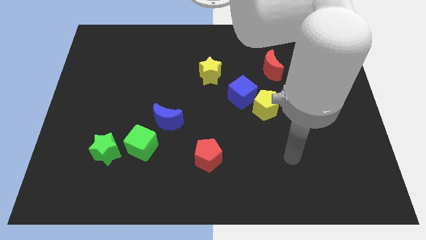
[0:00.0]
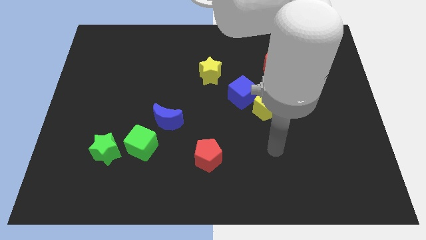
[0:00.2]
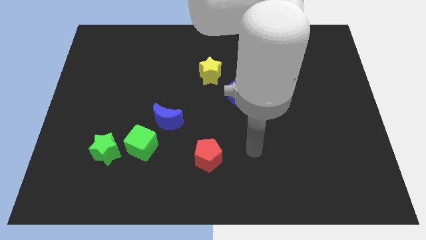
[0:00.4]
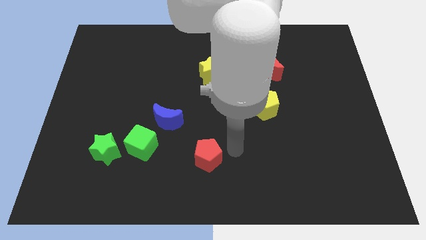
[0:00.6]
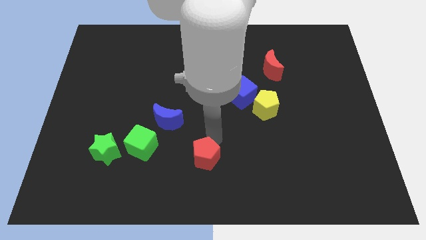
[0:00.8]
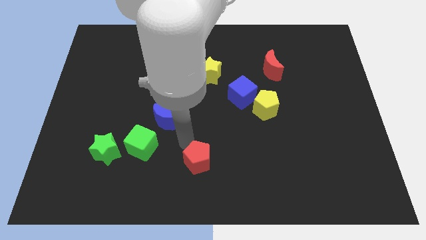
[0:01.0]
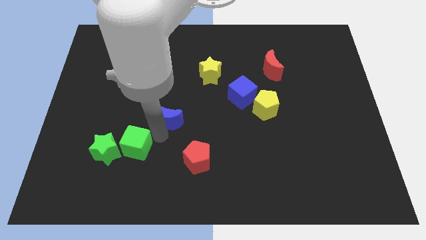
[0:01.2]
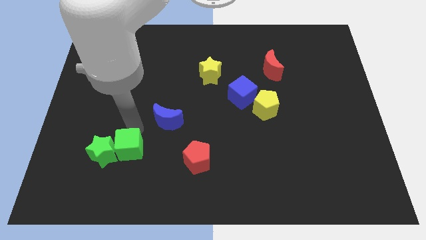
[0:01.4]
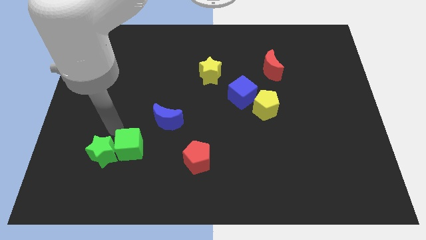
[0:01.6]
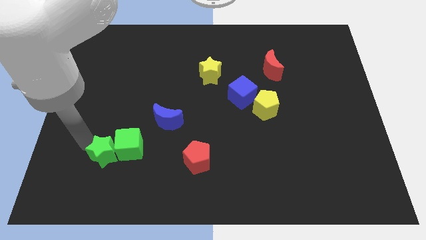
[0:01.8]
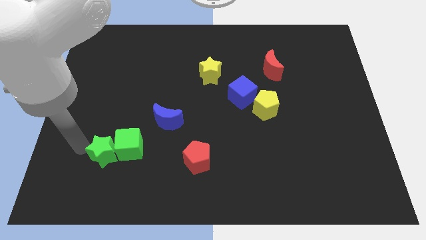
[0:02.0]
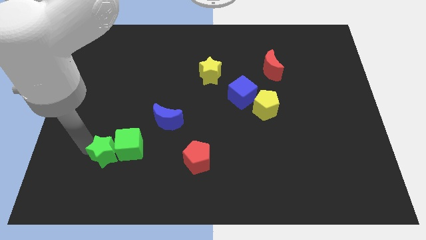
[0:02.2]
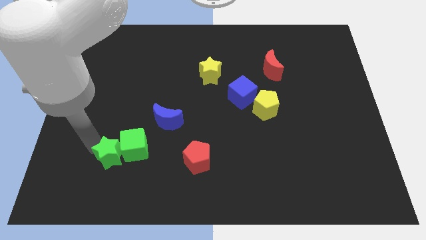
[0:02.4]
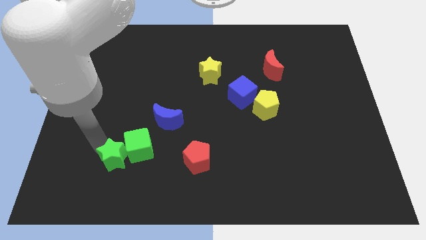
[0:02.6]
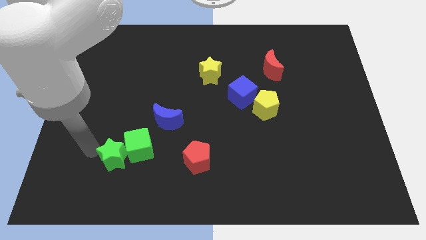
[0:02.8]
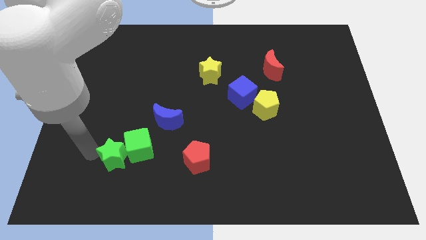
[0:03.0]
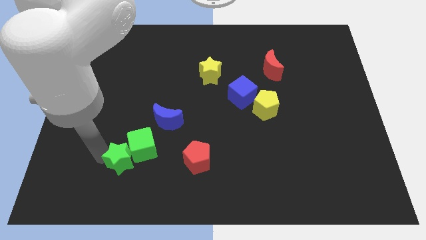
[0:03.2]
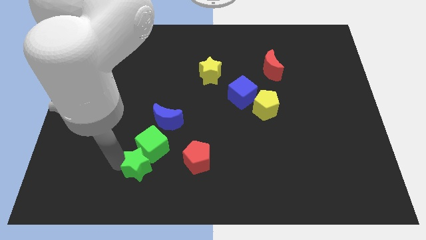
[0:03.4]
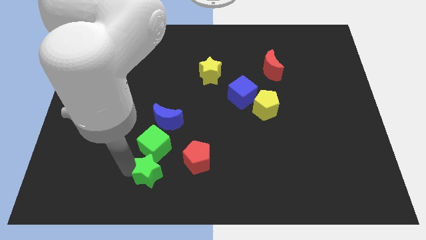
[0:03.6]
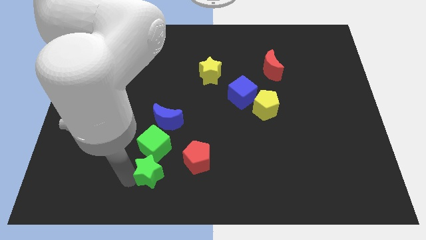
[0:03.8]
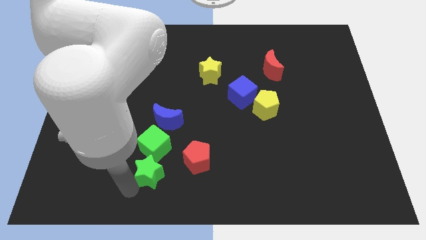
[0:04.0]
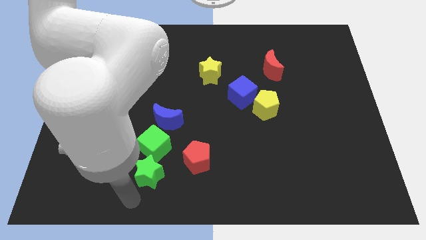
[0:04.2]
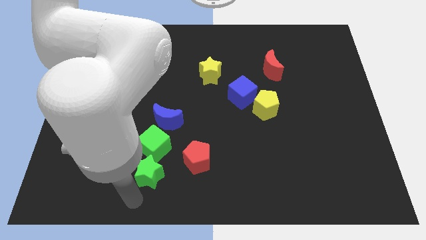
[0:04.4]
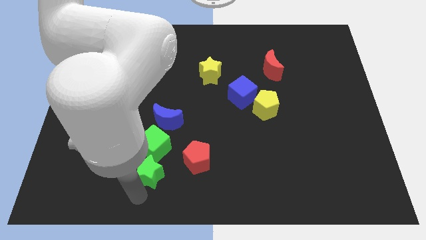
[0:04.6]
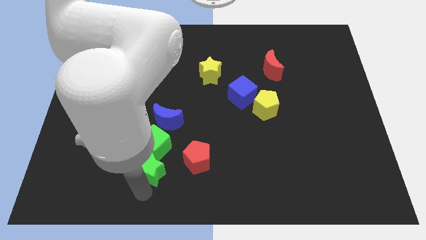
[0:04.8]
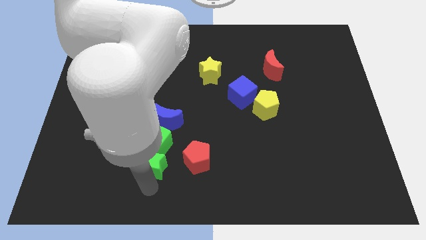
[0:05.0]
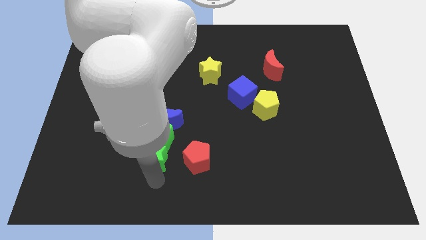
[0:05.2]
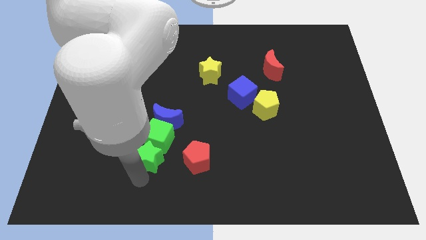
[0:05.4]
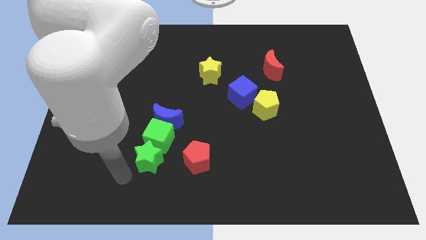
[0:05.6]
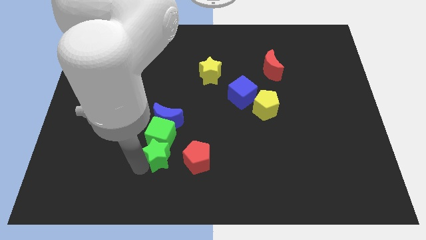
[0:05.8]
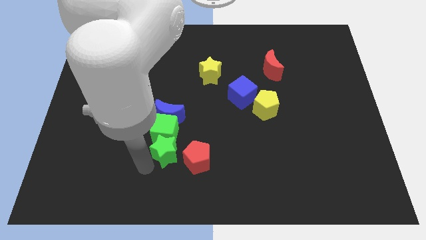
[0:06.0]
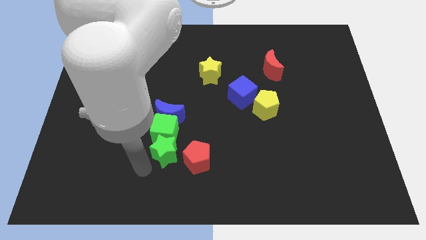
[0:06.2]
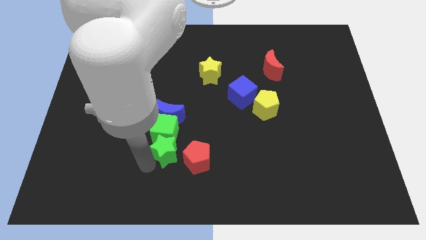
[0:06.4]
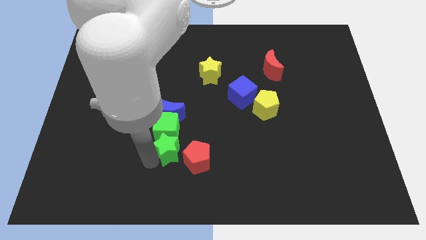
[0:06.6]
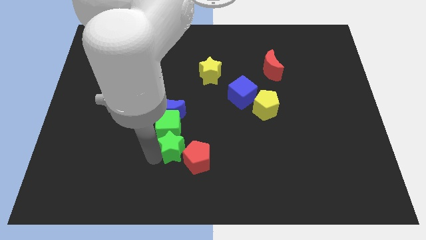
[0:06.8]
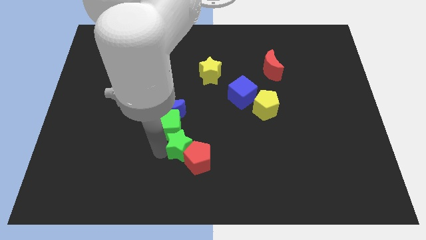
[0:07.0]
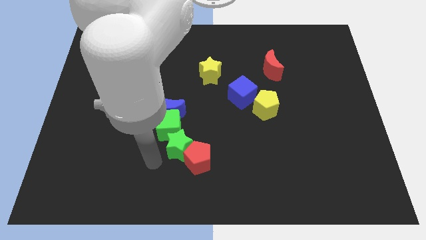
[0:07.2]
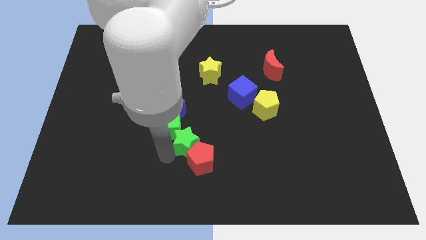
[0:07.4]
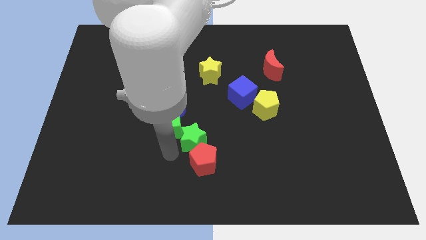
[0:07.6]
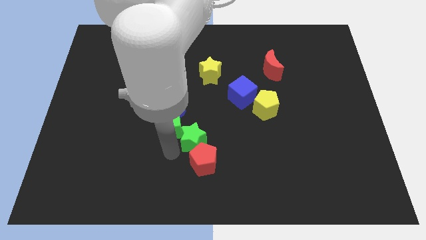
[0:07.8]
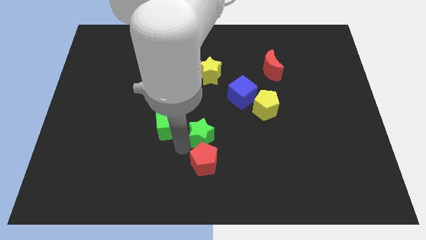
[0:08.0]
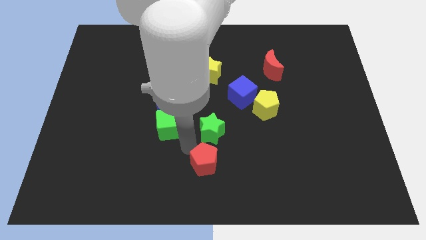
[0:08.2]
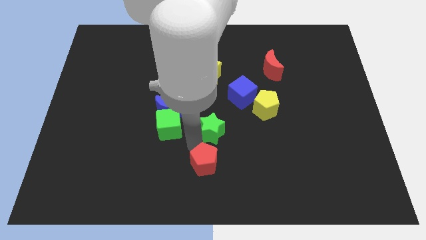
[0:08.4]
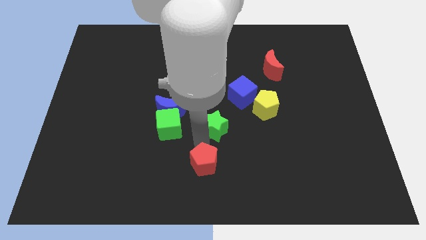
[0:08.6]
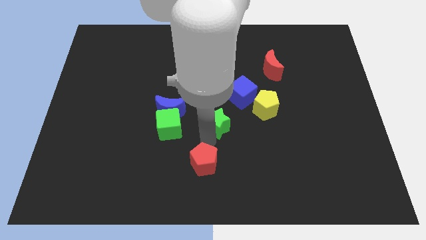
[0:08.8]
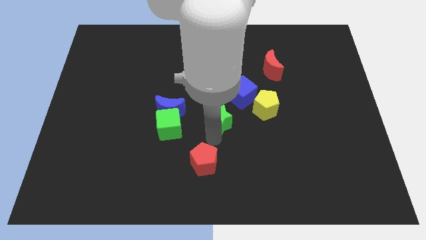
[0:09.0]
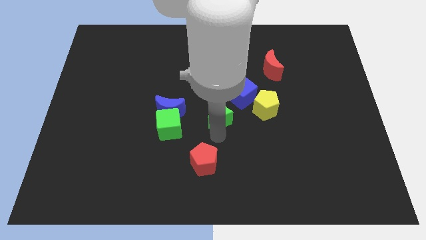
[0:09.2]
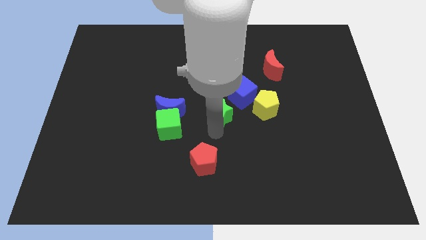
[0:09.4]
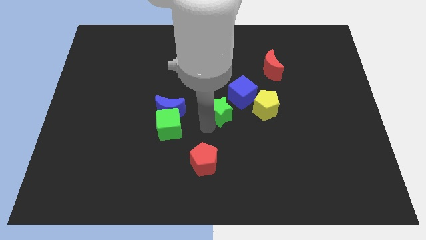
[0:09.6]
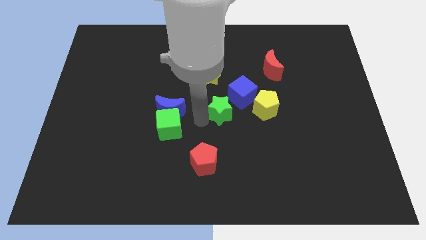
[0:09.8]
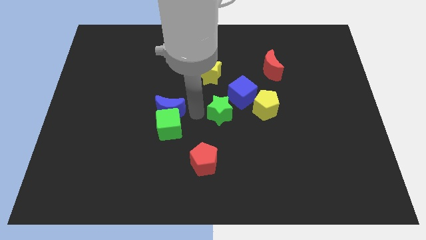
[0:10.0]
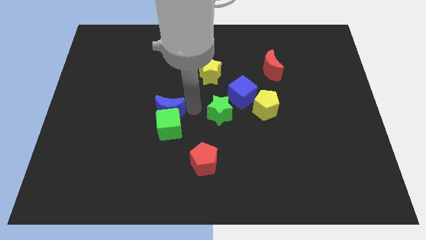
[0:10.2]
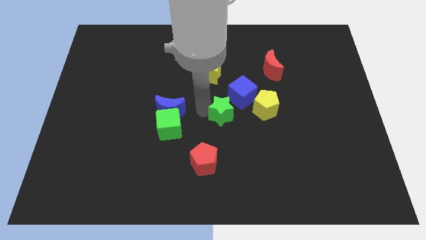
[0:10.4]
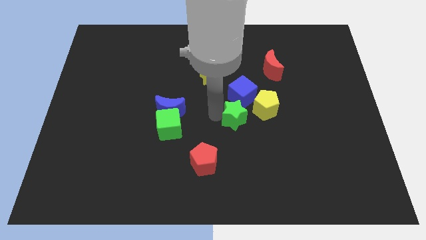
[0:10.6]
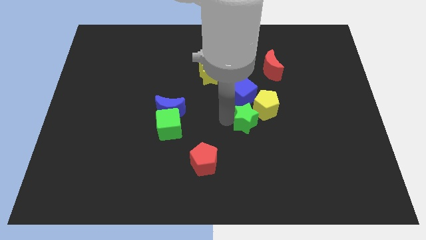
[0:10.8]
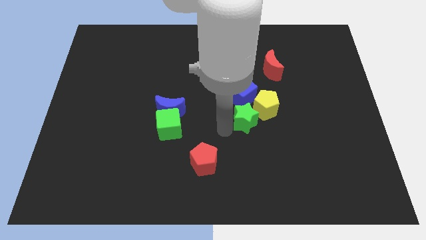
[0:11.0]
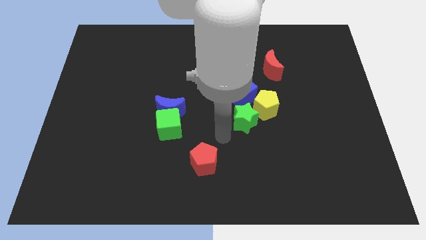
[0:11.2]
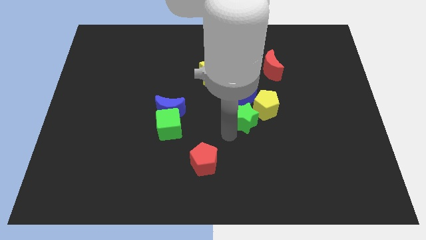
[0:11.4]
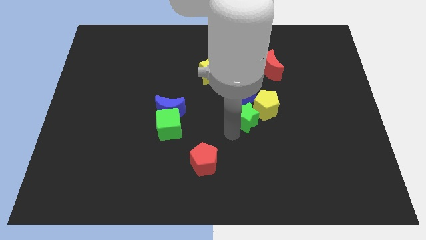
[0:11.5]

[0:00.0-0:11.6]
put the green star next to the yellow pentagon

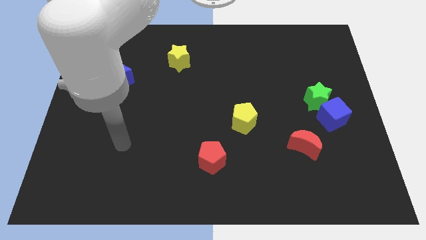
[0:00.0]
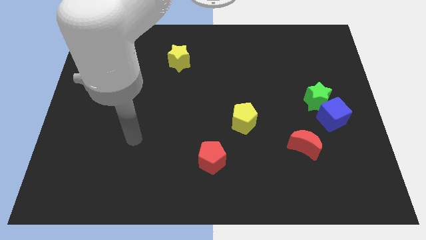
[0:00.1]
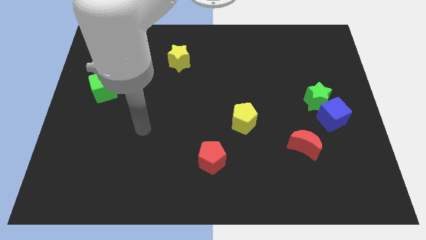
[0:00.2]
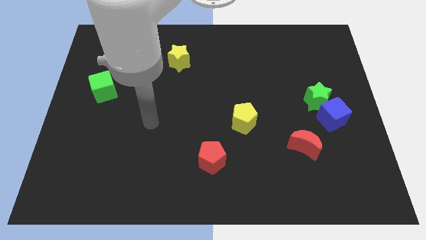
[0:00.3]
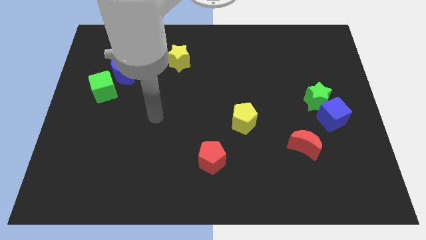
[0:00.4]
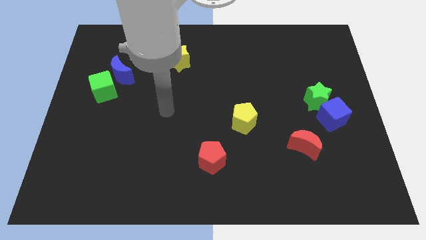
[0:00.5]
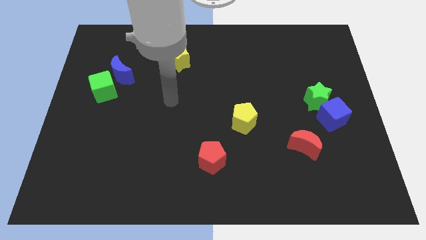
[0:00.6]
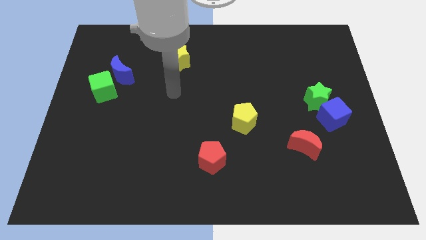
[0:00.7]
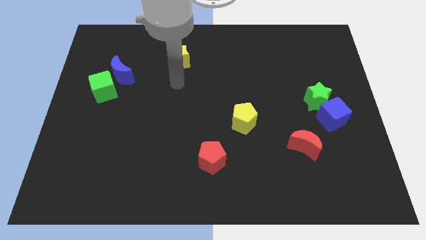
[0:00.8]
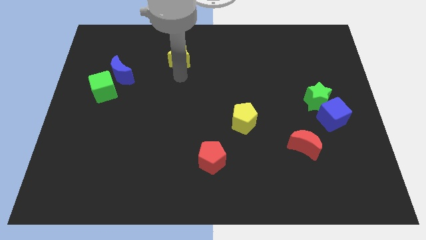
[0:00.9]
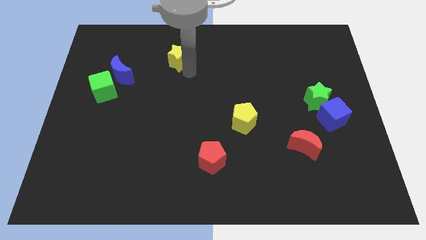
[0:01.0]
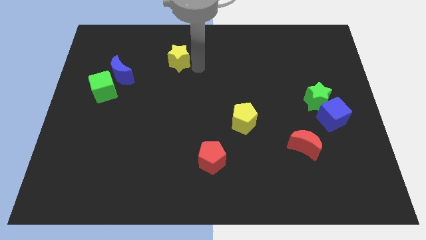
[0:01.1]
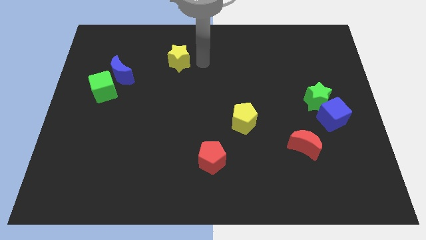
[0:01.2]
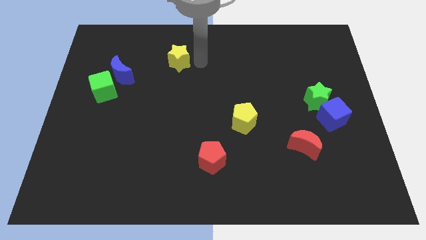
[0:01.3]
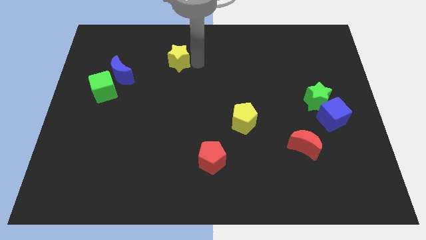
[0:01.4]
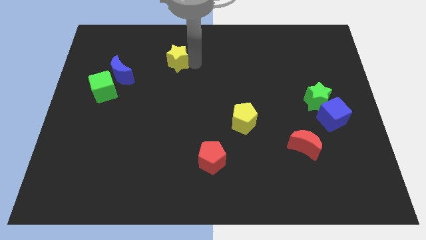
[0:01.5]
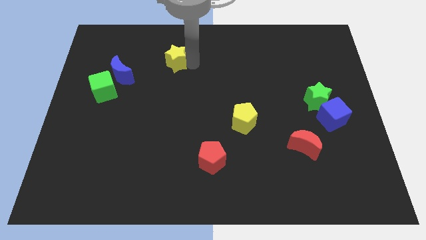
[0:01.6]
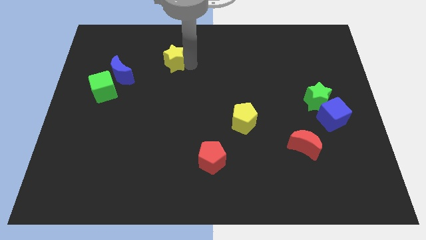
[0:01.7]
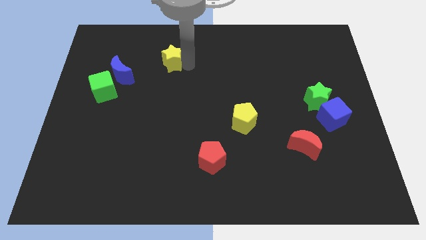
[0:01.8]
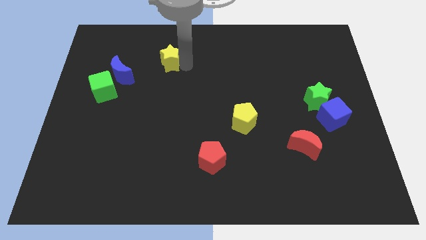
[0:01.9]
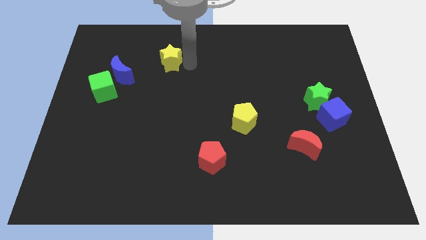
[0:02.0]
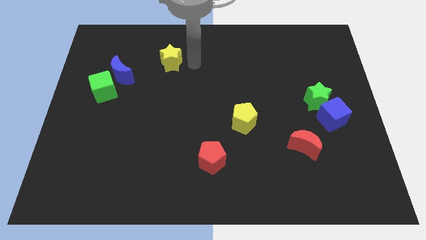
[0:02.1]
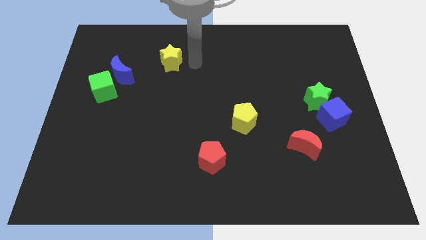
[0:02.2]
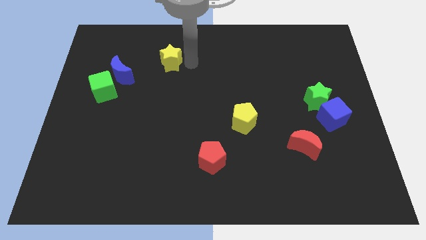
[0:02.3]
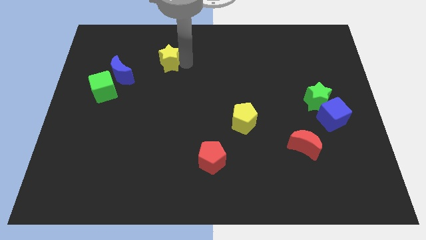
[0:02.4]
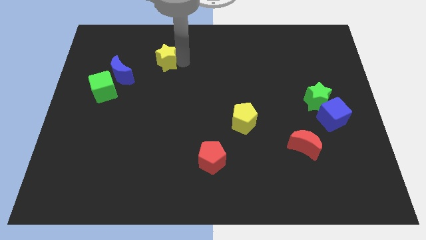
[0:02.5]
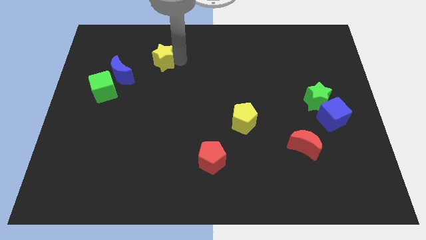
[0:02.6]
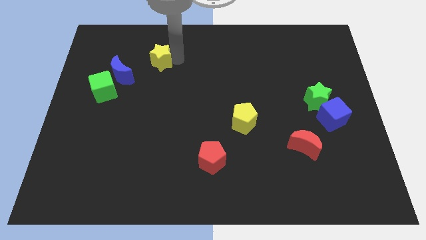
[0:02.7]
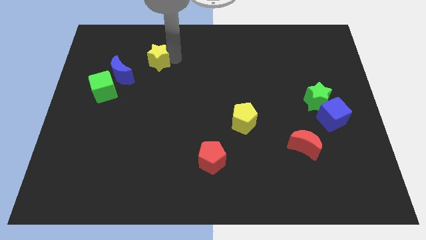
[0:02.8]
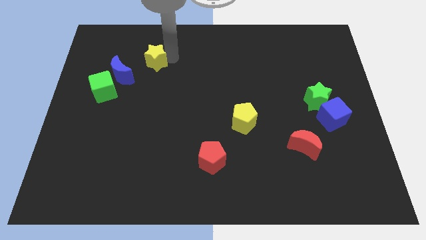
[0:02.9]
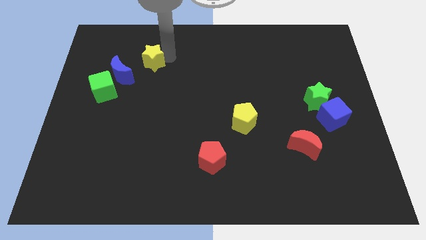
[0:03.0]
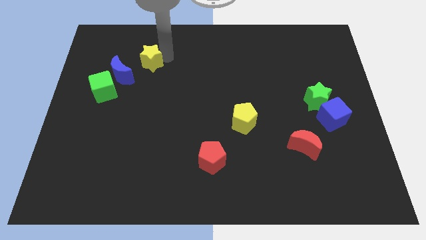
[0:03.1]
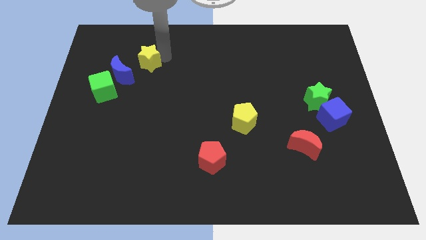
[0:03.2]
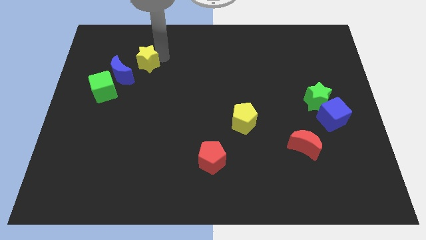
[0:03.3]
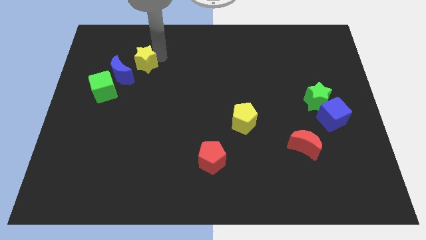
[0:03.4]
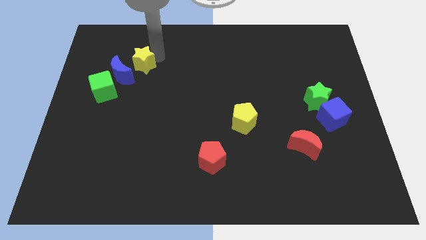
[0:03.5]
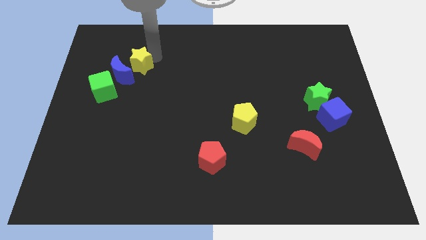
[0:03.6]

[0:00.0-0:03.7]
push the yellow star towards the blue moon
